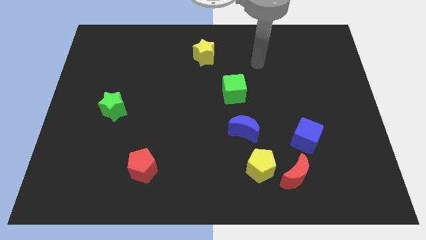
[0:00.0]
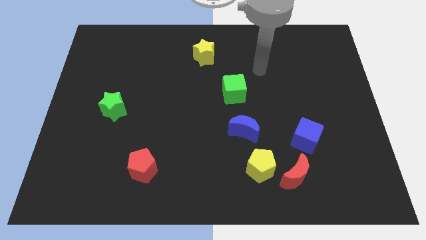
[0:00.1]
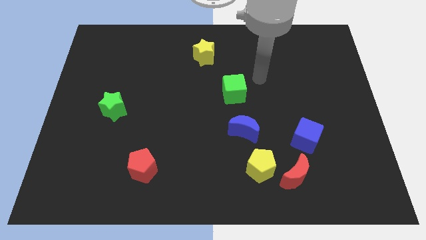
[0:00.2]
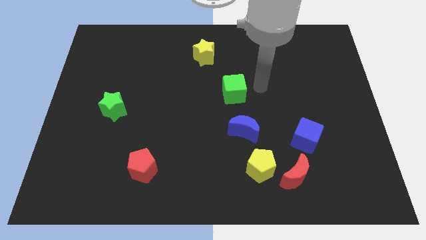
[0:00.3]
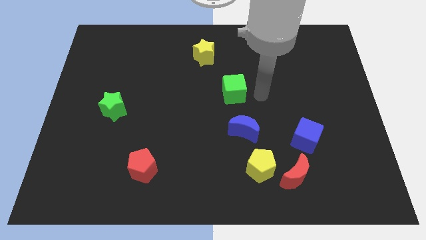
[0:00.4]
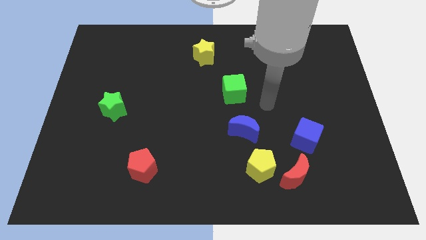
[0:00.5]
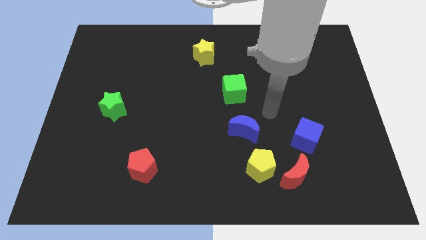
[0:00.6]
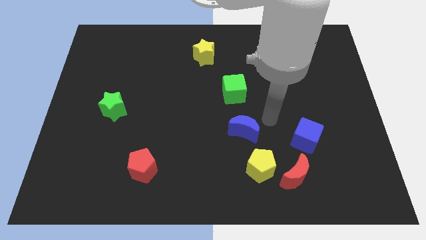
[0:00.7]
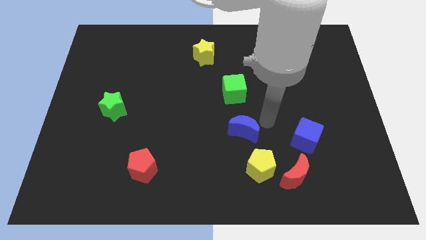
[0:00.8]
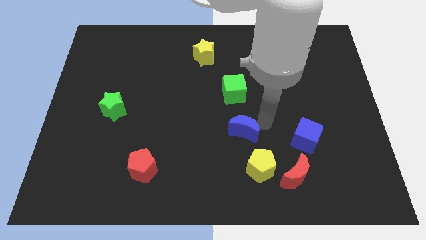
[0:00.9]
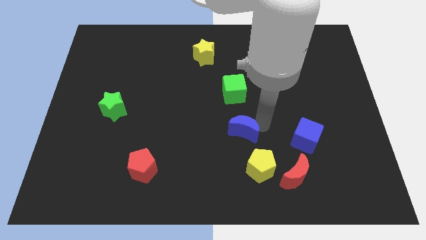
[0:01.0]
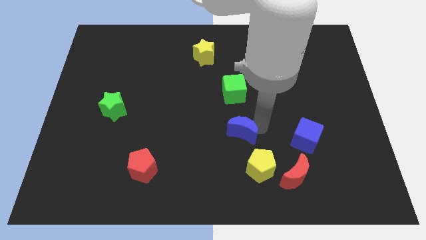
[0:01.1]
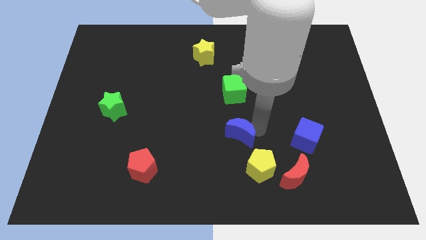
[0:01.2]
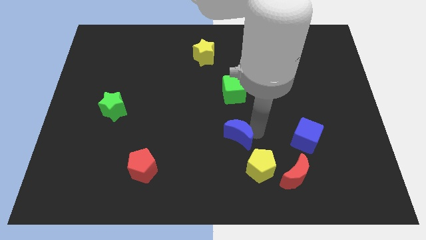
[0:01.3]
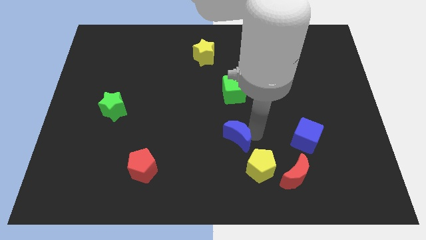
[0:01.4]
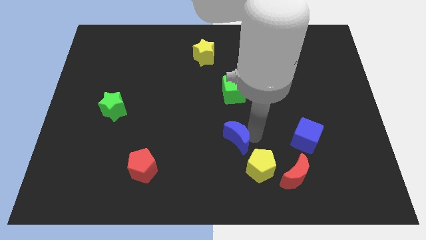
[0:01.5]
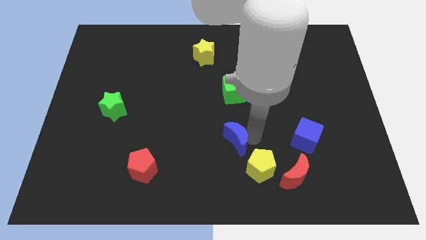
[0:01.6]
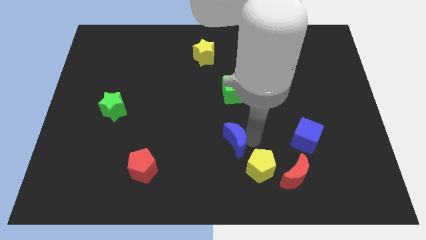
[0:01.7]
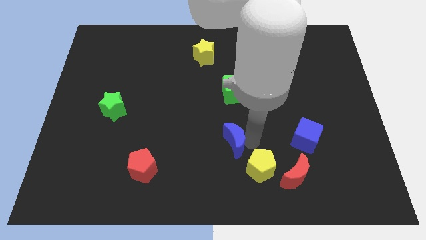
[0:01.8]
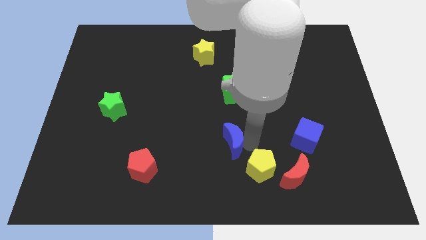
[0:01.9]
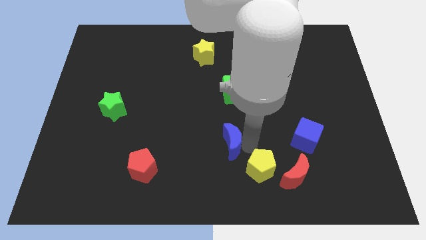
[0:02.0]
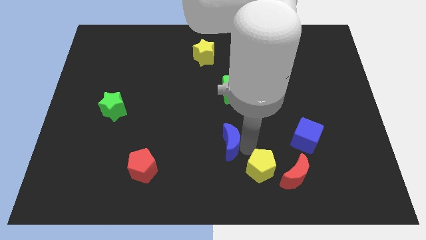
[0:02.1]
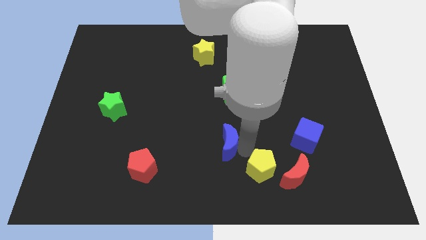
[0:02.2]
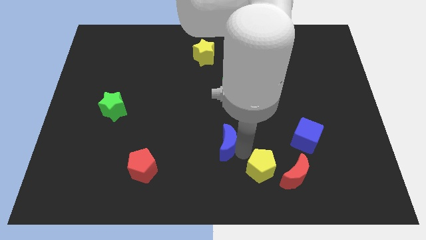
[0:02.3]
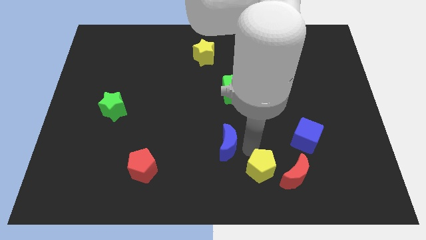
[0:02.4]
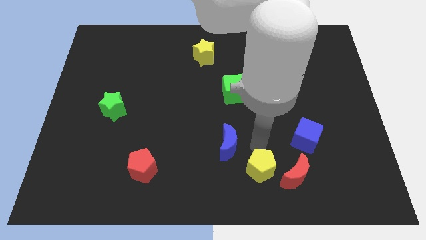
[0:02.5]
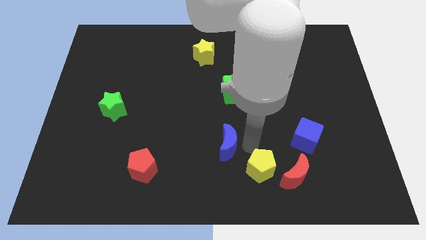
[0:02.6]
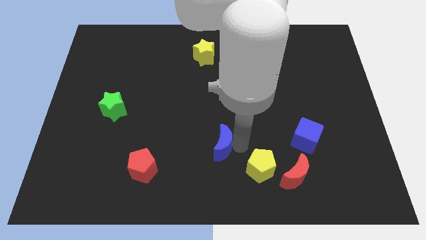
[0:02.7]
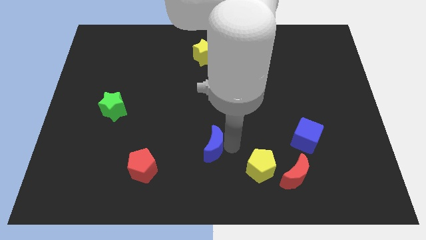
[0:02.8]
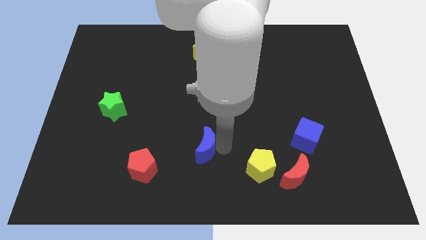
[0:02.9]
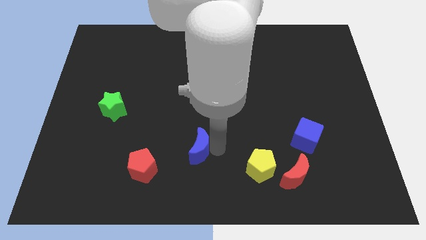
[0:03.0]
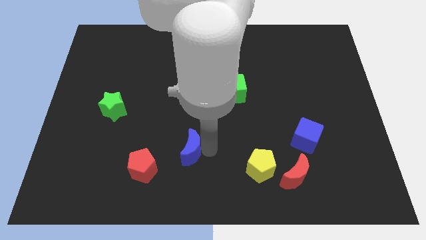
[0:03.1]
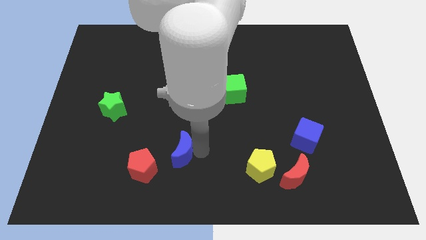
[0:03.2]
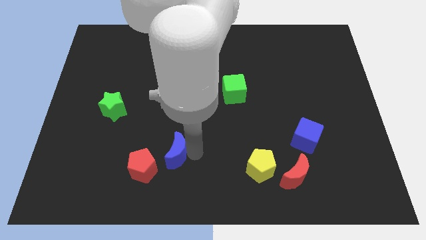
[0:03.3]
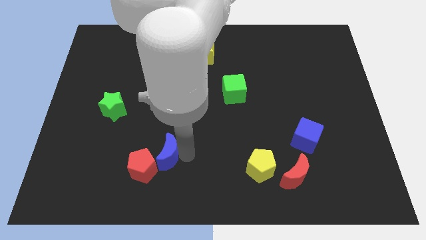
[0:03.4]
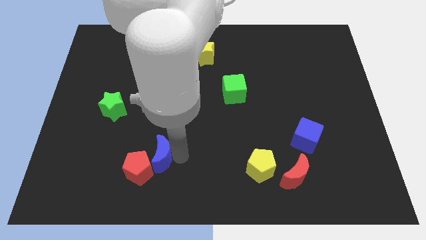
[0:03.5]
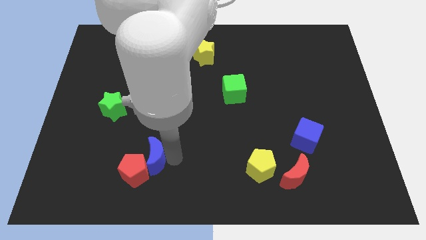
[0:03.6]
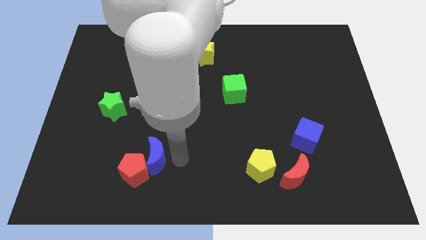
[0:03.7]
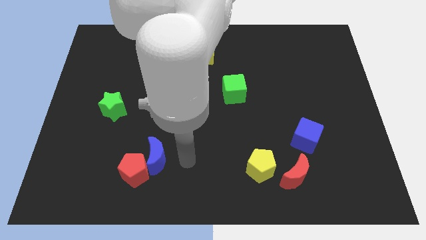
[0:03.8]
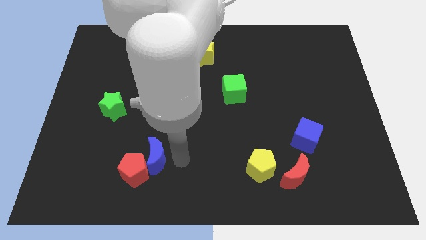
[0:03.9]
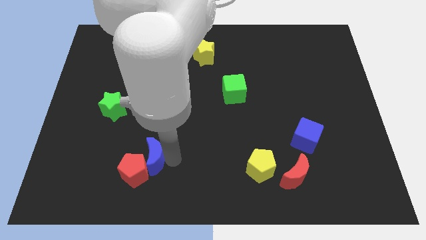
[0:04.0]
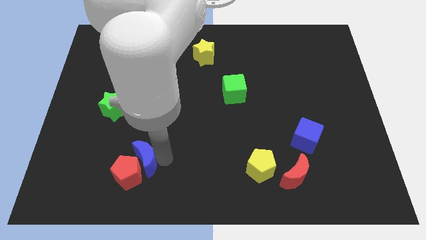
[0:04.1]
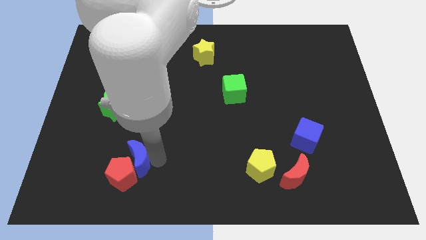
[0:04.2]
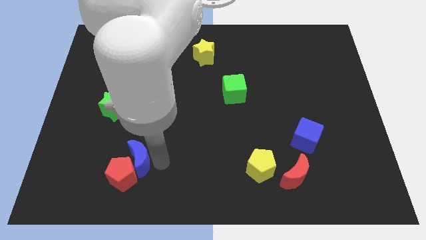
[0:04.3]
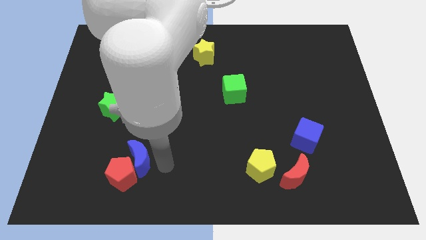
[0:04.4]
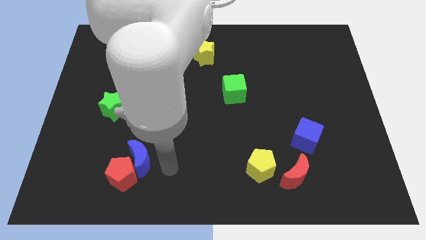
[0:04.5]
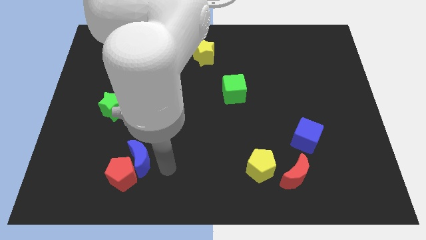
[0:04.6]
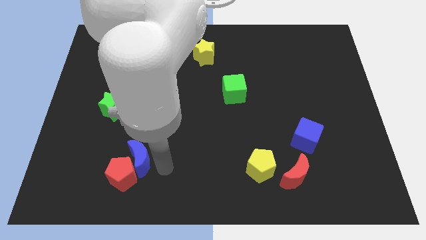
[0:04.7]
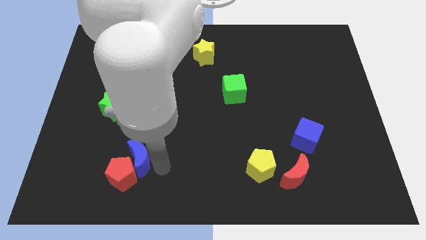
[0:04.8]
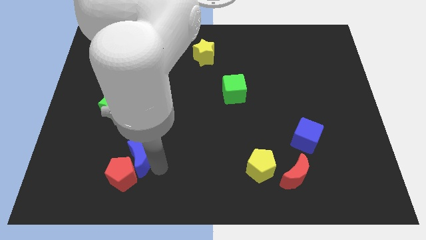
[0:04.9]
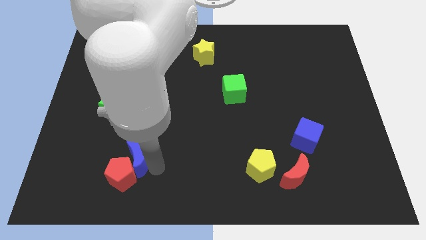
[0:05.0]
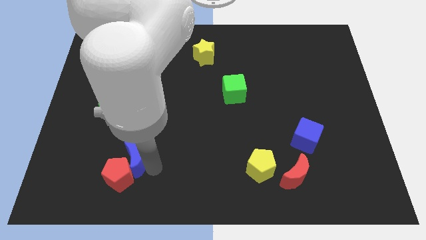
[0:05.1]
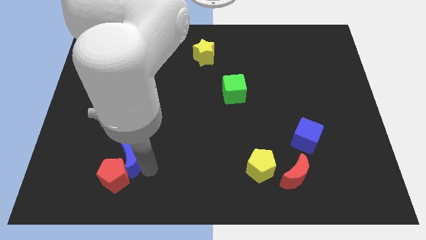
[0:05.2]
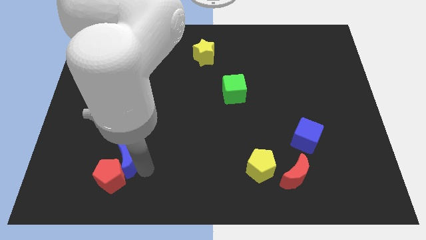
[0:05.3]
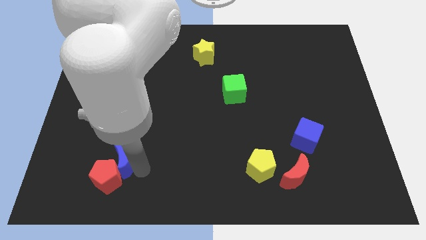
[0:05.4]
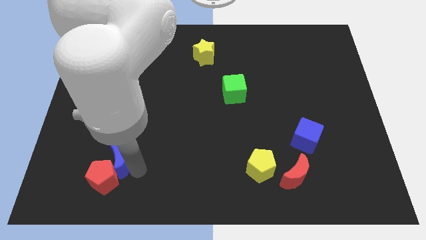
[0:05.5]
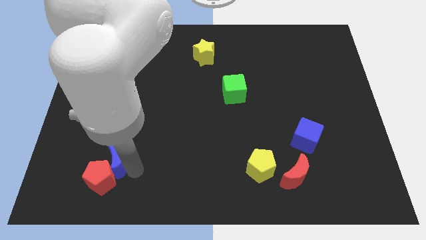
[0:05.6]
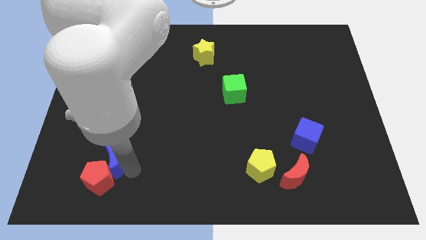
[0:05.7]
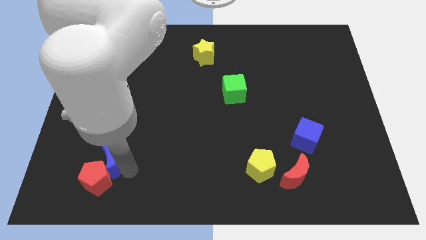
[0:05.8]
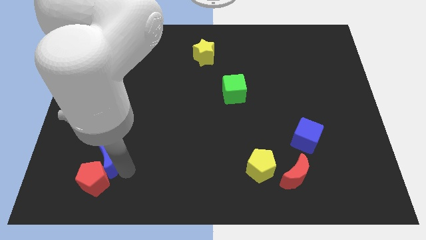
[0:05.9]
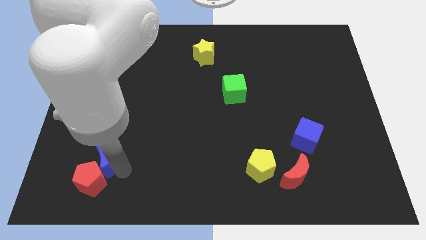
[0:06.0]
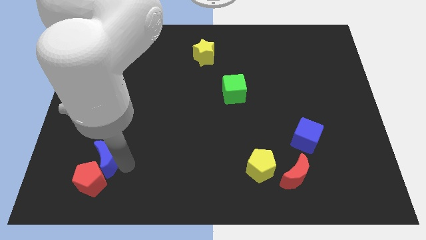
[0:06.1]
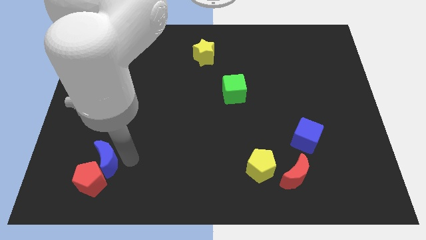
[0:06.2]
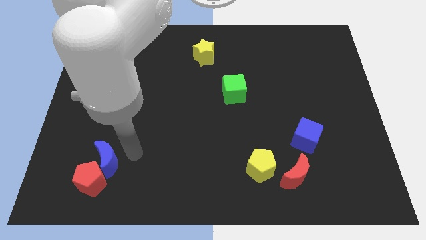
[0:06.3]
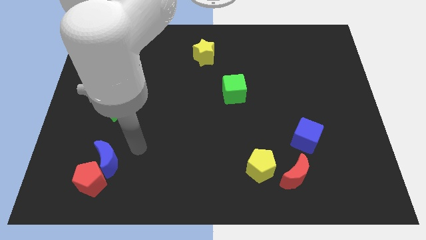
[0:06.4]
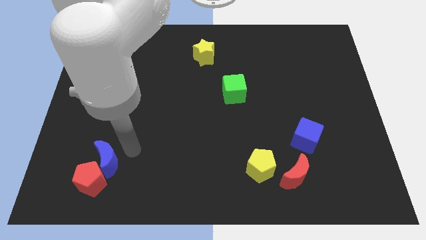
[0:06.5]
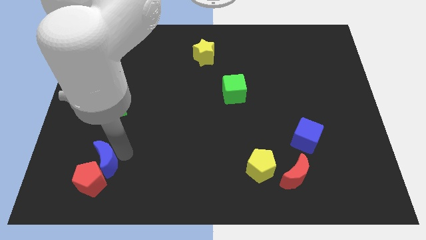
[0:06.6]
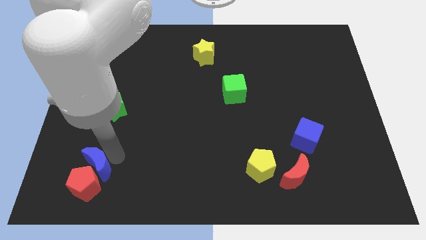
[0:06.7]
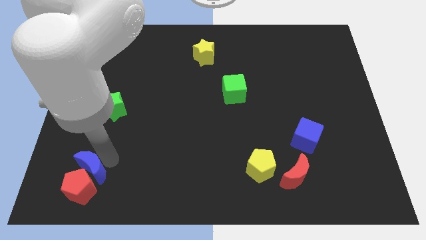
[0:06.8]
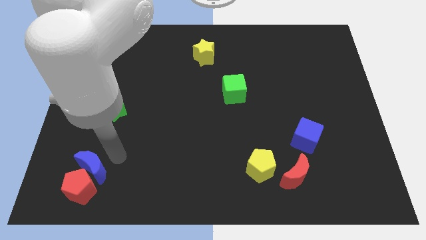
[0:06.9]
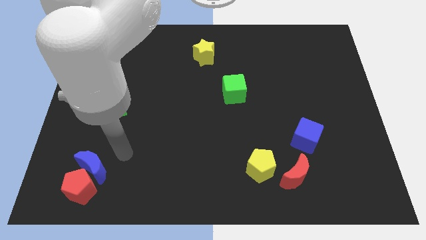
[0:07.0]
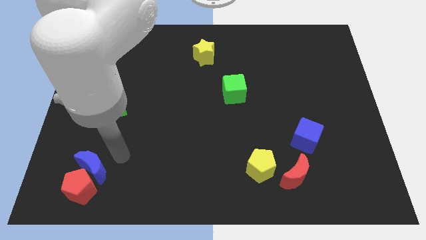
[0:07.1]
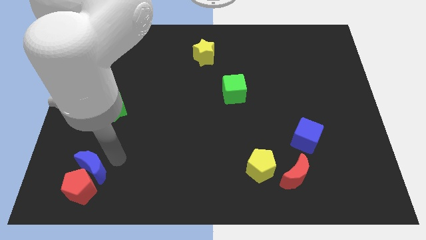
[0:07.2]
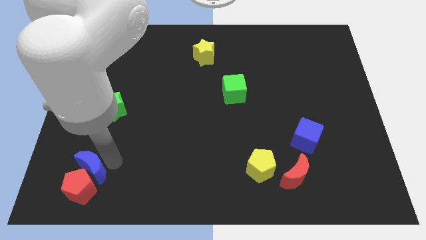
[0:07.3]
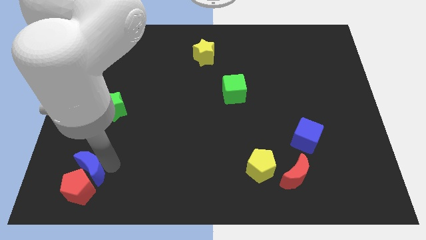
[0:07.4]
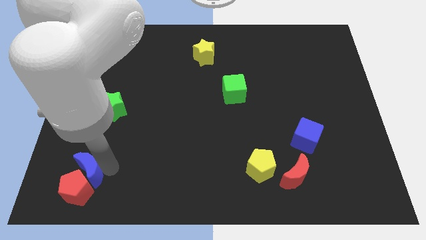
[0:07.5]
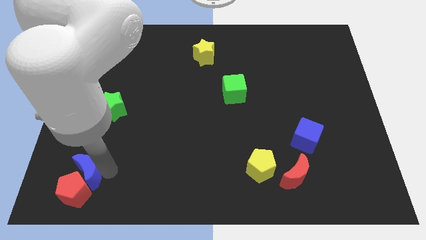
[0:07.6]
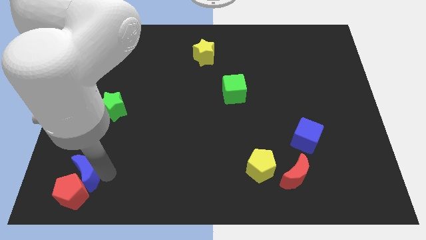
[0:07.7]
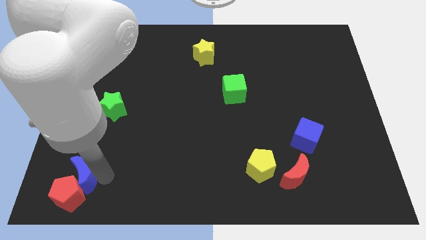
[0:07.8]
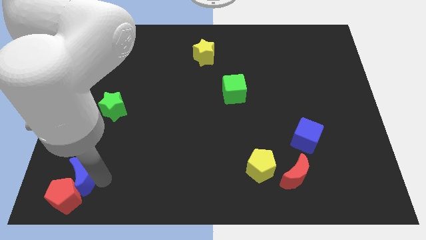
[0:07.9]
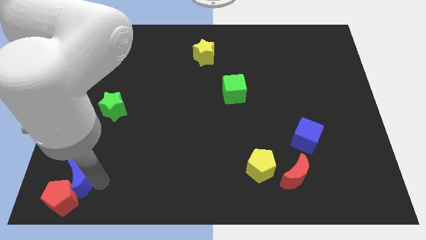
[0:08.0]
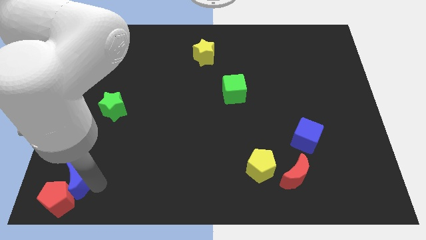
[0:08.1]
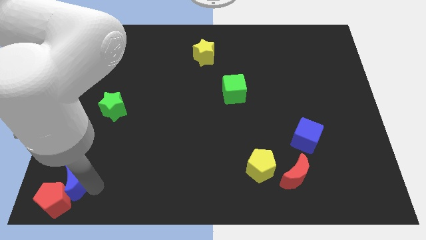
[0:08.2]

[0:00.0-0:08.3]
slide the blue moon to the bottom left corner
